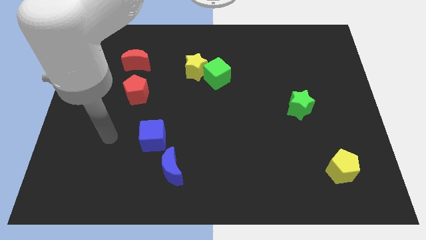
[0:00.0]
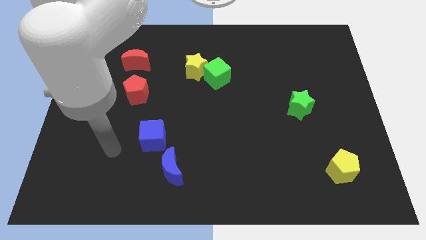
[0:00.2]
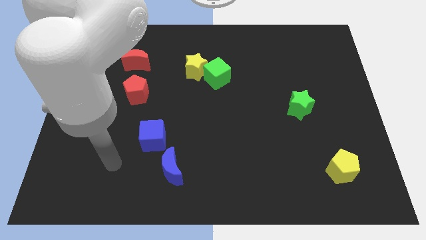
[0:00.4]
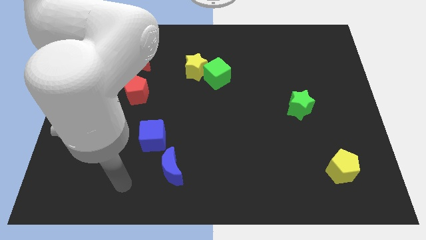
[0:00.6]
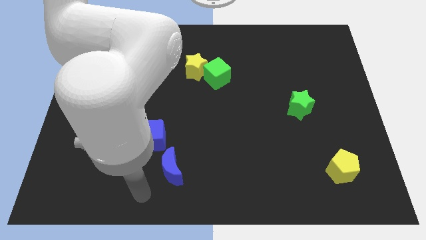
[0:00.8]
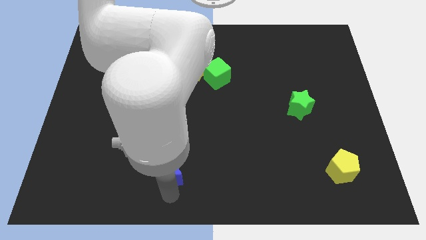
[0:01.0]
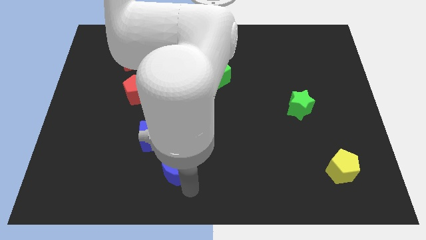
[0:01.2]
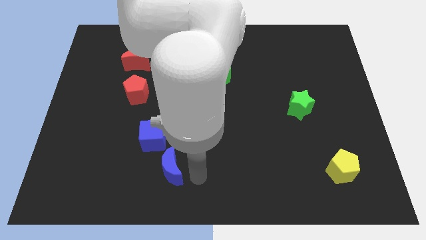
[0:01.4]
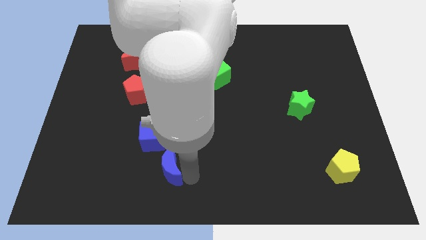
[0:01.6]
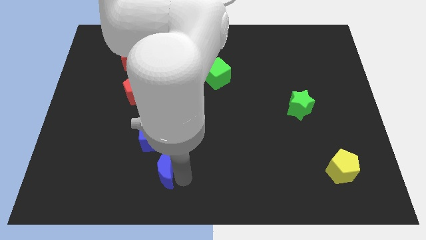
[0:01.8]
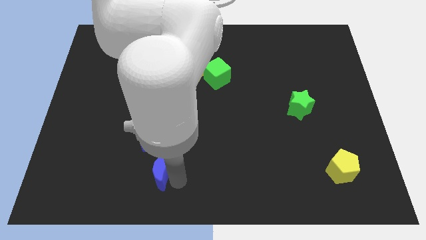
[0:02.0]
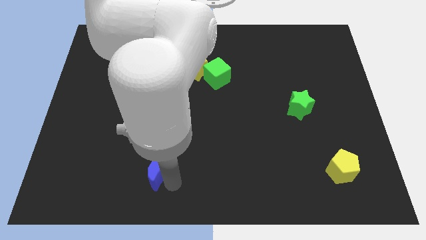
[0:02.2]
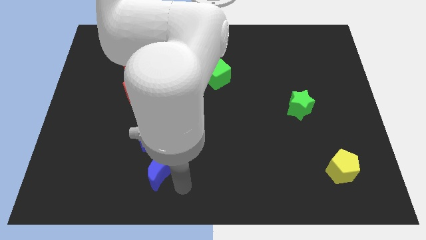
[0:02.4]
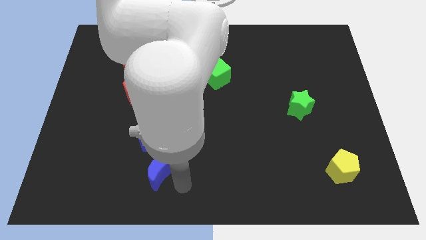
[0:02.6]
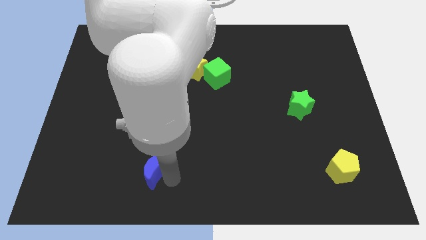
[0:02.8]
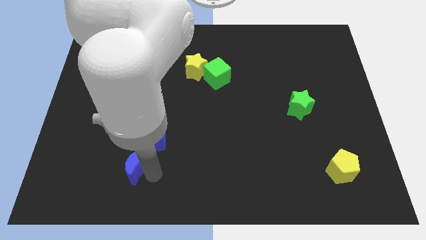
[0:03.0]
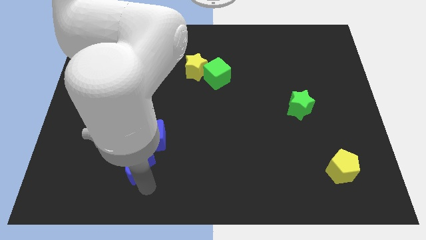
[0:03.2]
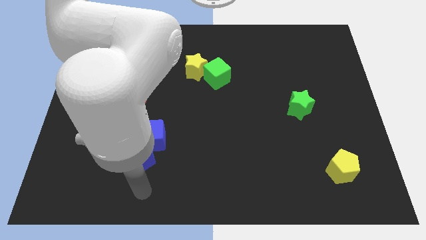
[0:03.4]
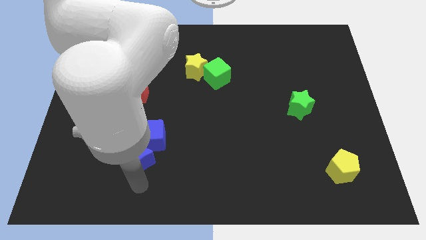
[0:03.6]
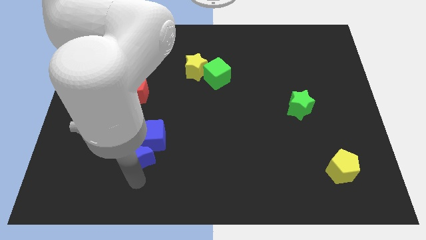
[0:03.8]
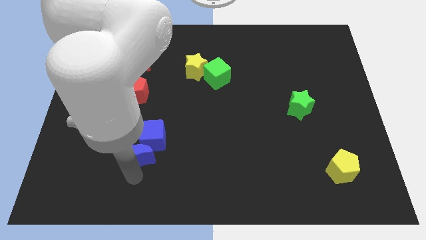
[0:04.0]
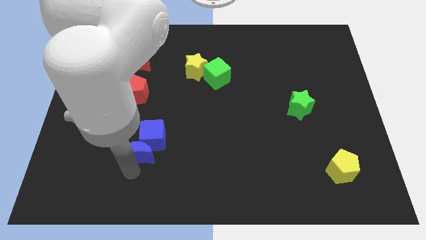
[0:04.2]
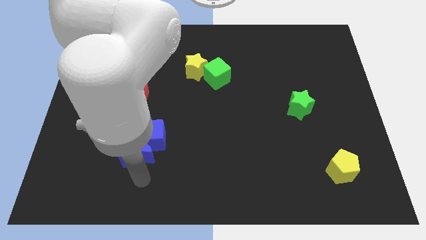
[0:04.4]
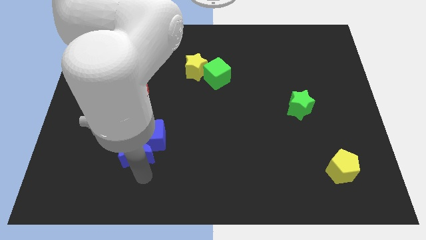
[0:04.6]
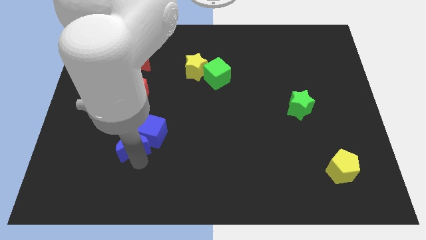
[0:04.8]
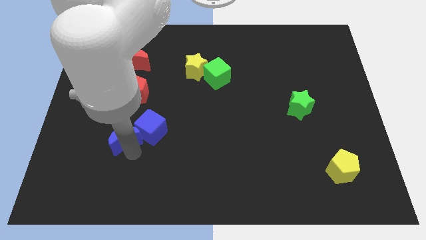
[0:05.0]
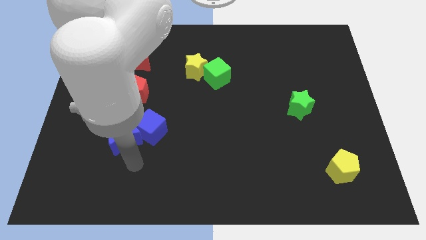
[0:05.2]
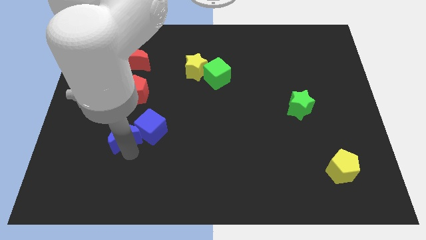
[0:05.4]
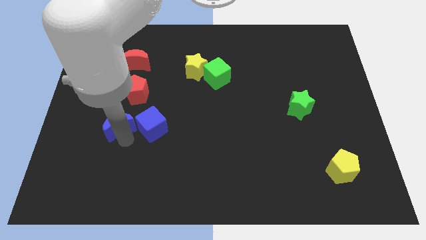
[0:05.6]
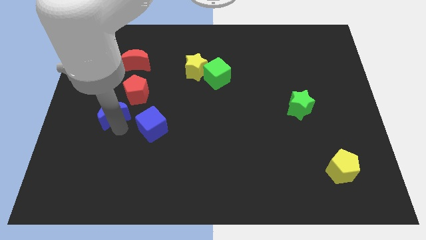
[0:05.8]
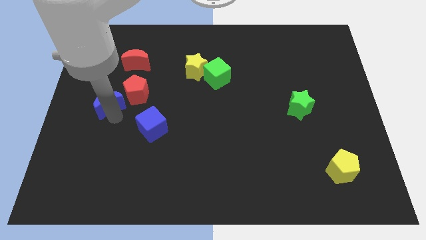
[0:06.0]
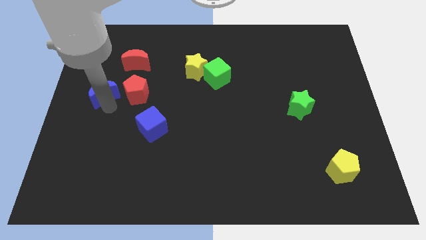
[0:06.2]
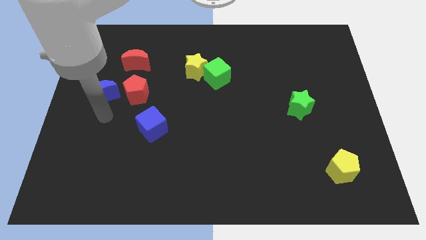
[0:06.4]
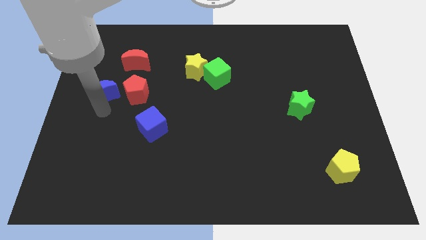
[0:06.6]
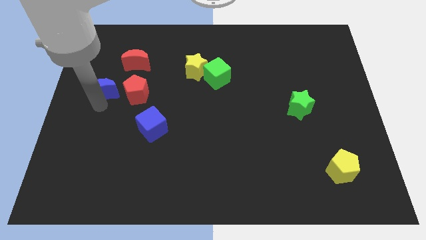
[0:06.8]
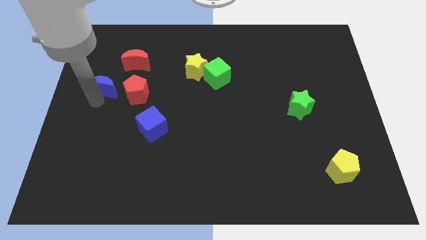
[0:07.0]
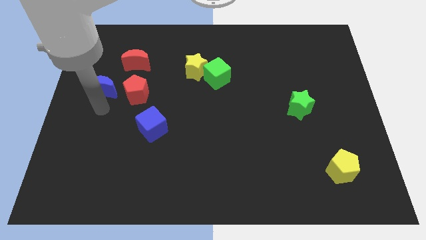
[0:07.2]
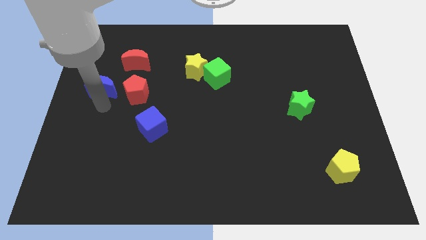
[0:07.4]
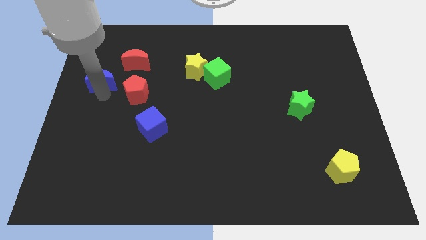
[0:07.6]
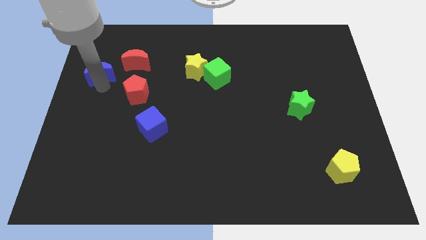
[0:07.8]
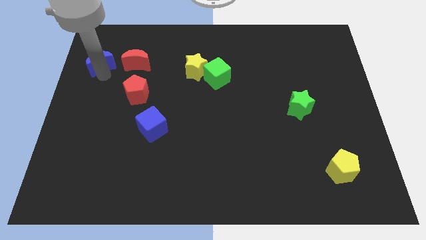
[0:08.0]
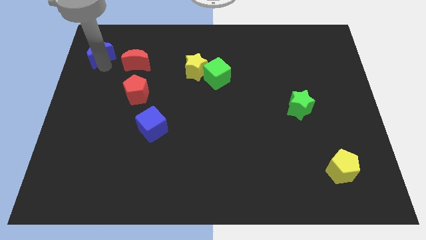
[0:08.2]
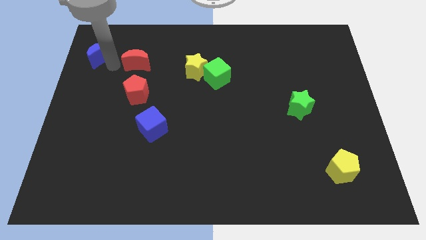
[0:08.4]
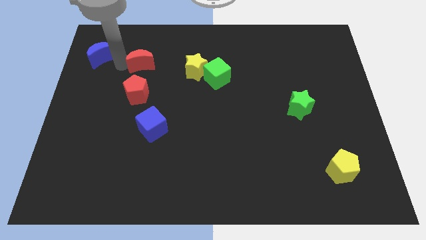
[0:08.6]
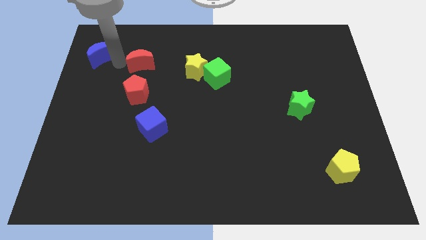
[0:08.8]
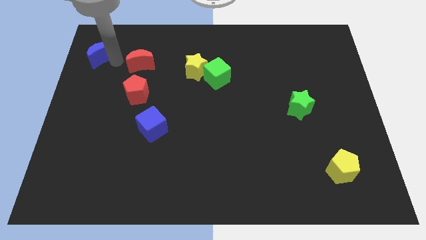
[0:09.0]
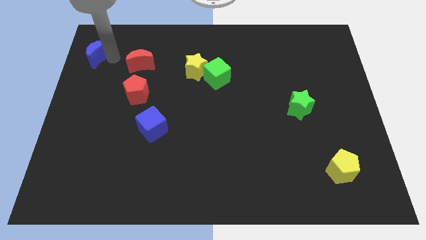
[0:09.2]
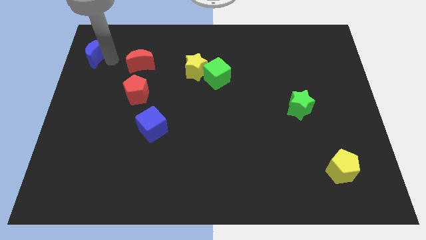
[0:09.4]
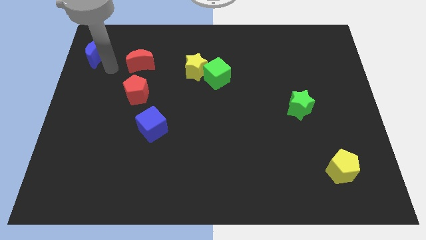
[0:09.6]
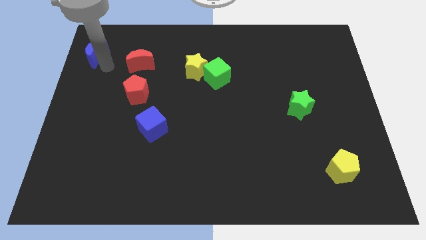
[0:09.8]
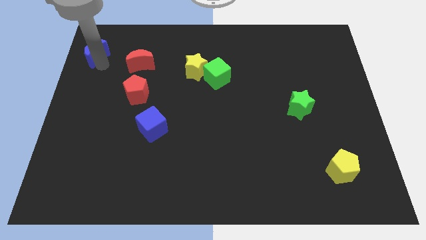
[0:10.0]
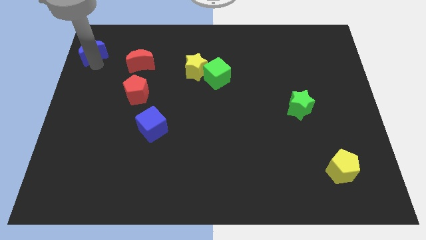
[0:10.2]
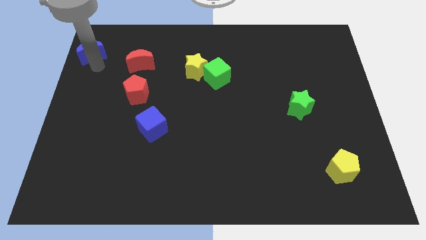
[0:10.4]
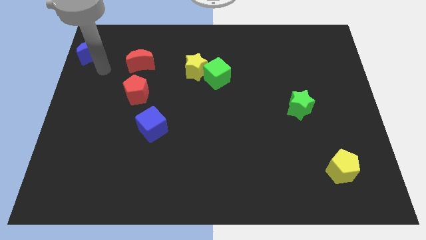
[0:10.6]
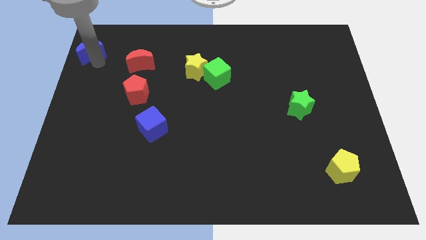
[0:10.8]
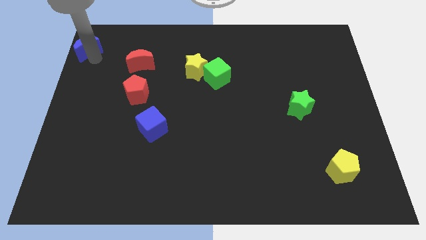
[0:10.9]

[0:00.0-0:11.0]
move the blue moon to the upper left corner

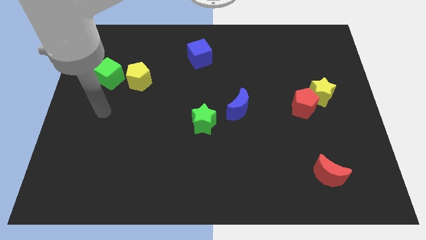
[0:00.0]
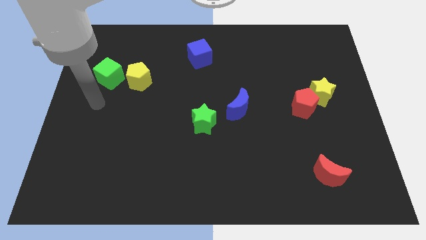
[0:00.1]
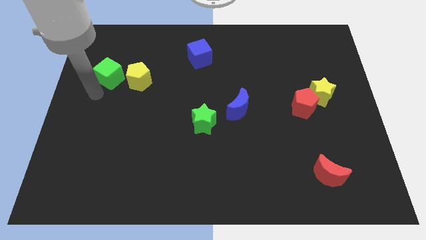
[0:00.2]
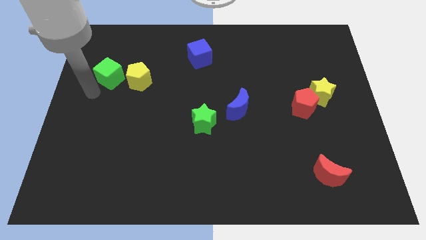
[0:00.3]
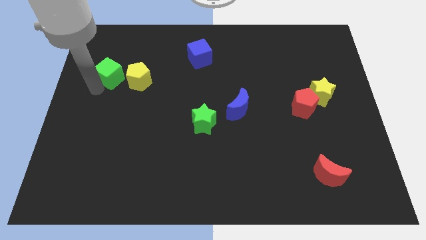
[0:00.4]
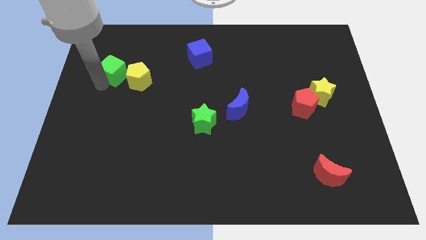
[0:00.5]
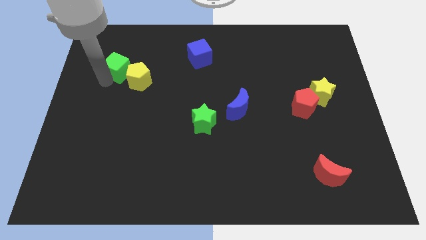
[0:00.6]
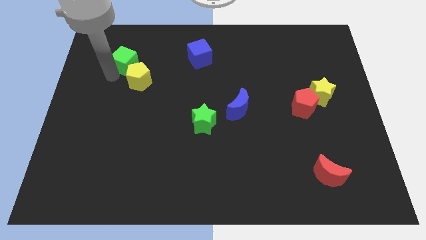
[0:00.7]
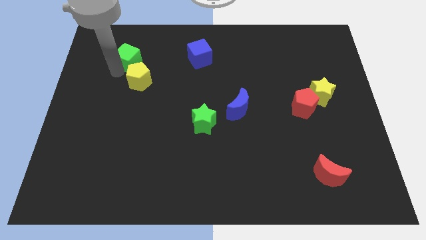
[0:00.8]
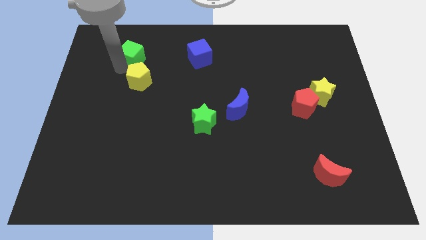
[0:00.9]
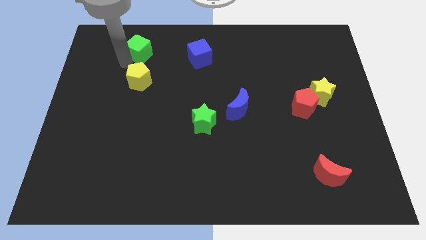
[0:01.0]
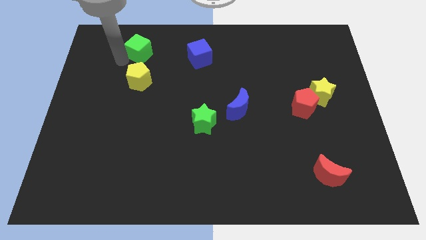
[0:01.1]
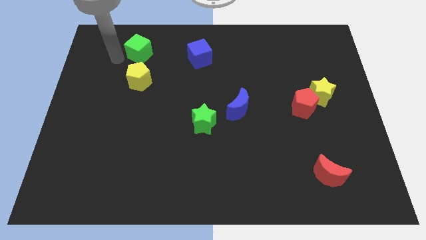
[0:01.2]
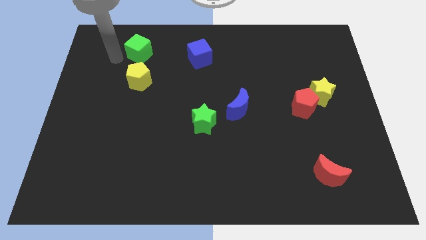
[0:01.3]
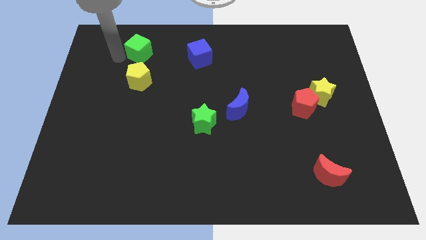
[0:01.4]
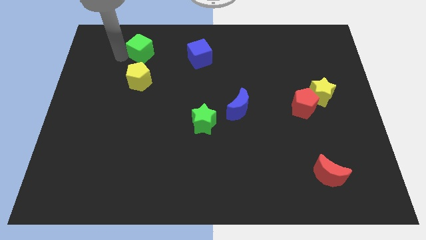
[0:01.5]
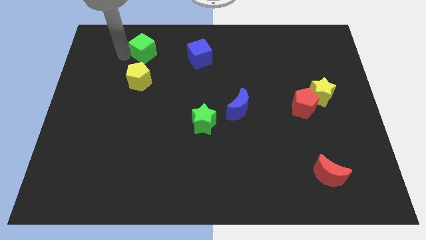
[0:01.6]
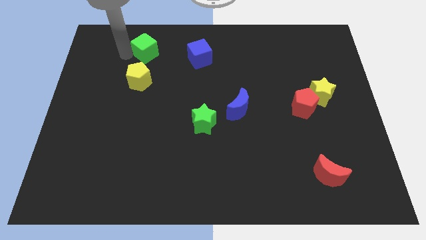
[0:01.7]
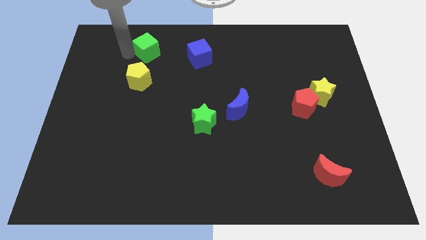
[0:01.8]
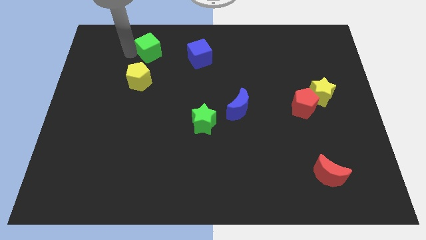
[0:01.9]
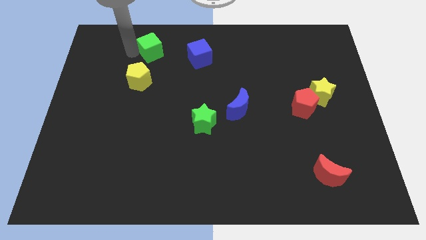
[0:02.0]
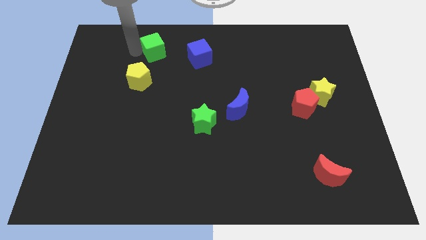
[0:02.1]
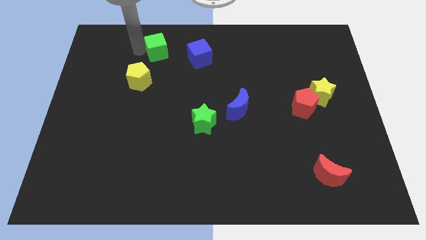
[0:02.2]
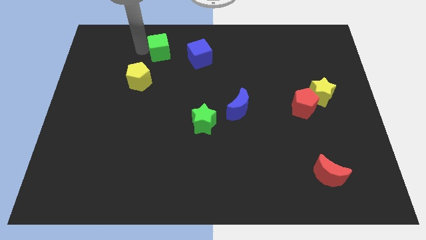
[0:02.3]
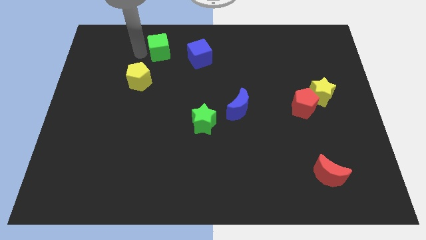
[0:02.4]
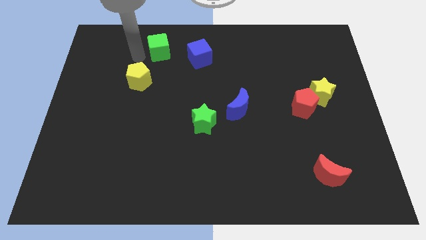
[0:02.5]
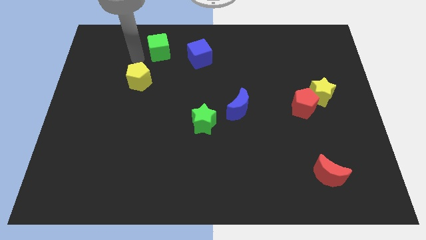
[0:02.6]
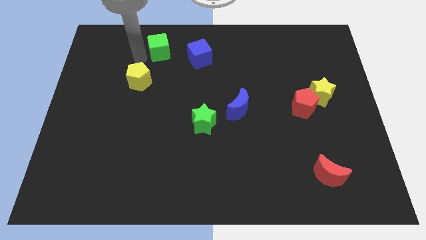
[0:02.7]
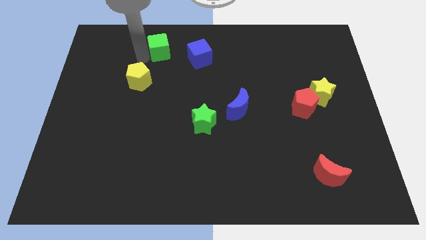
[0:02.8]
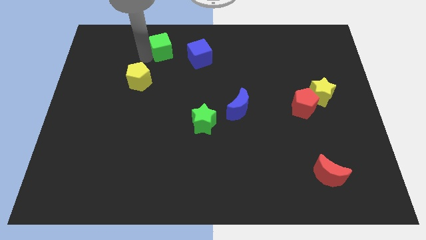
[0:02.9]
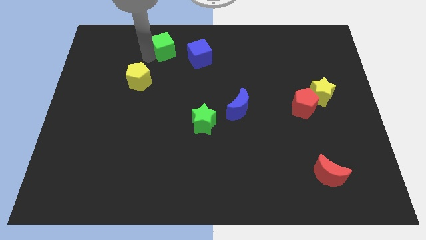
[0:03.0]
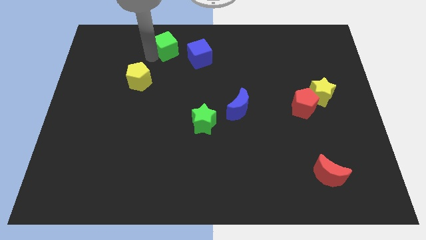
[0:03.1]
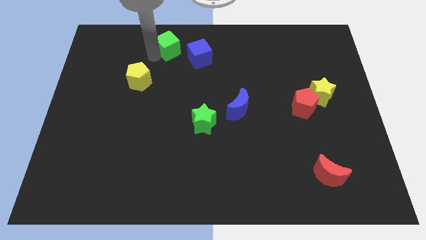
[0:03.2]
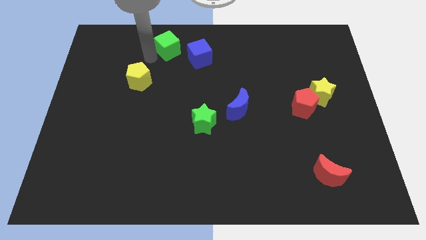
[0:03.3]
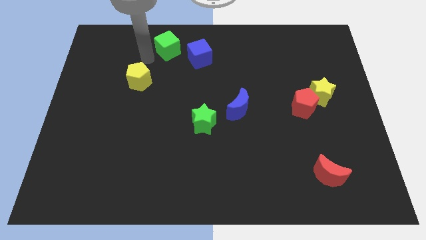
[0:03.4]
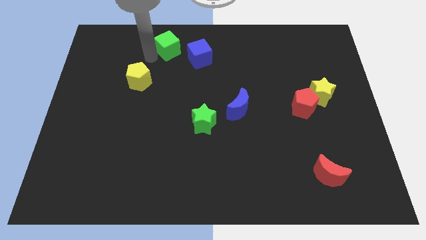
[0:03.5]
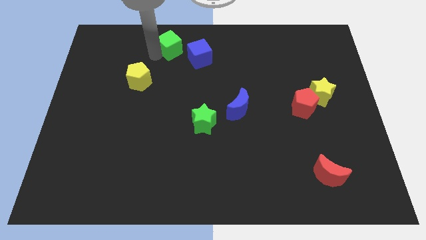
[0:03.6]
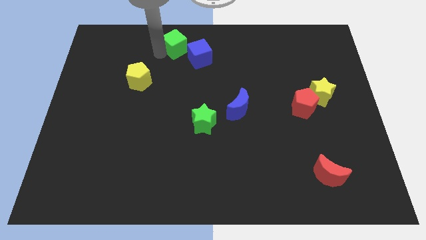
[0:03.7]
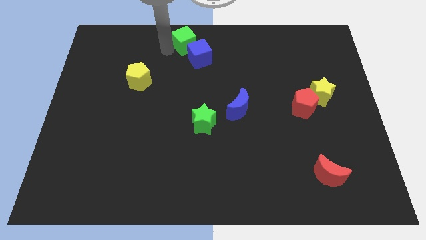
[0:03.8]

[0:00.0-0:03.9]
slide the green cube to the towards your base
